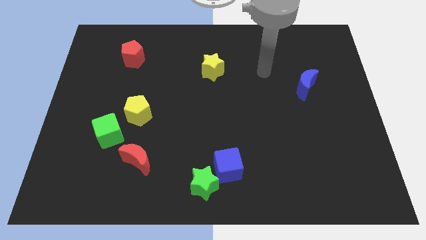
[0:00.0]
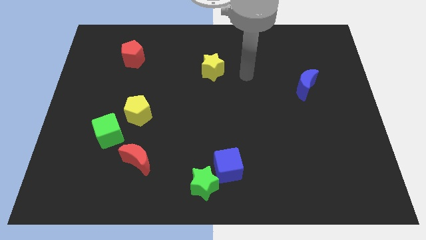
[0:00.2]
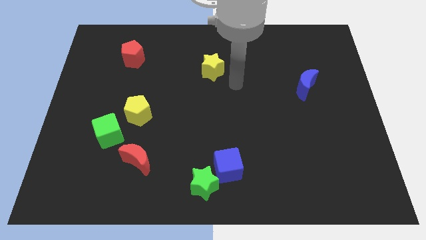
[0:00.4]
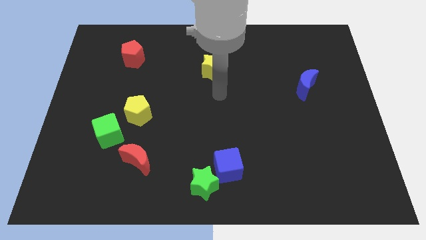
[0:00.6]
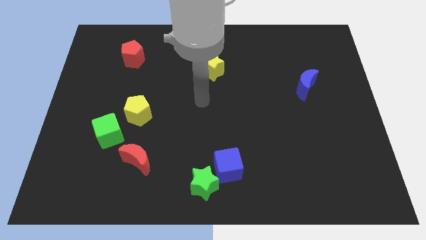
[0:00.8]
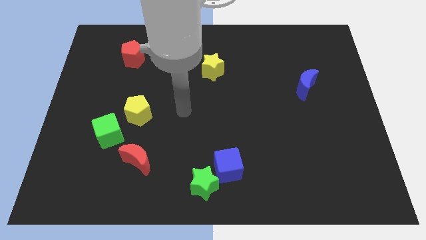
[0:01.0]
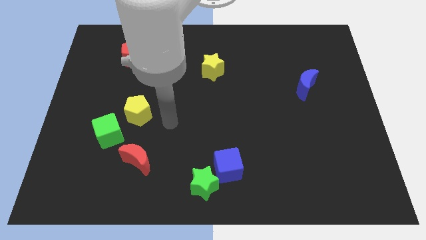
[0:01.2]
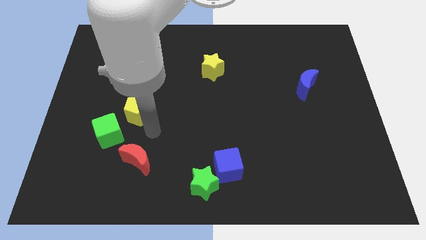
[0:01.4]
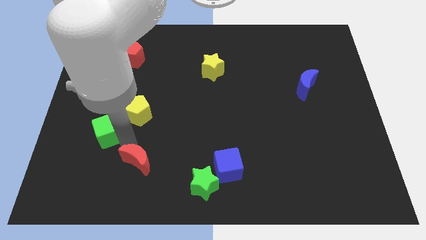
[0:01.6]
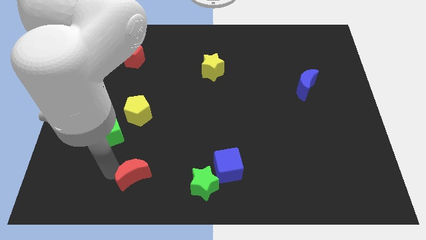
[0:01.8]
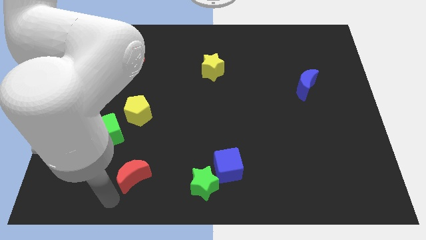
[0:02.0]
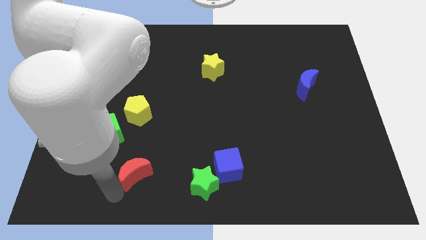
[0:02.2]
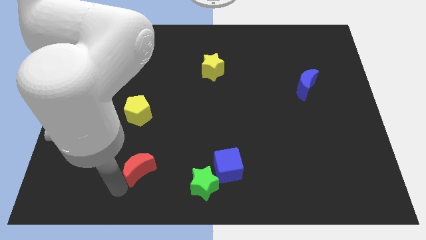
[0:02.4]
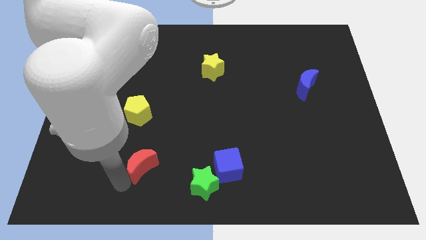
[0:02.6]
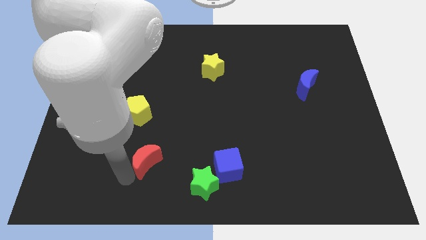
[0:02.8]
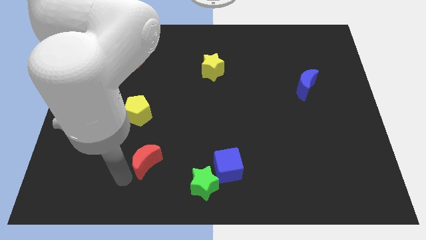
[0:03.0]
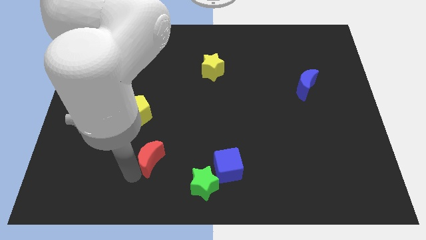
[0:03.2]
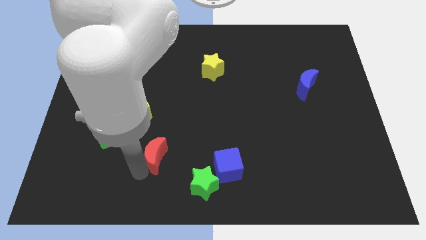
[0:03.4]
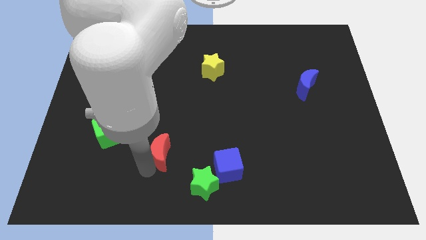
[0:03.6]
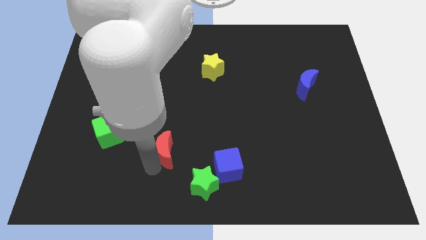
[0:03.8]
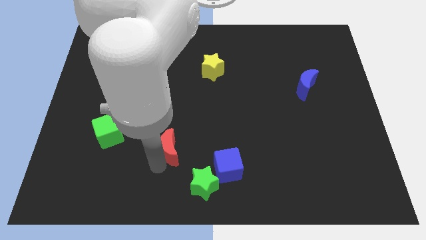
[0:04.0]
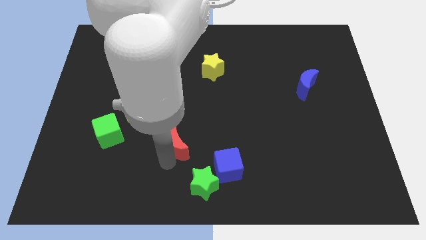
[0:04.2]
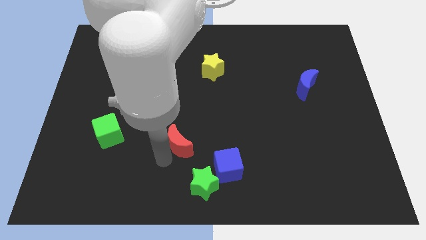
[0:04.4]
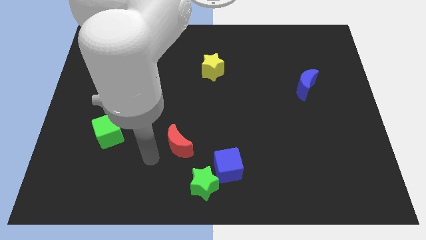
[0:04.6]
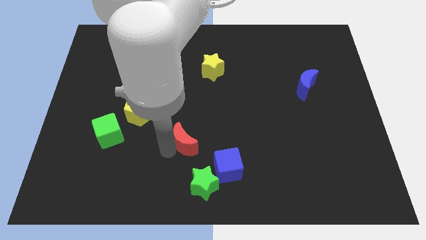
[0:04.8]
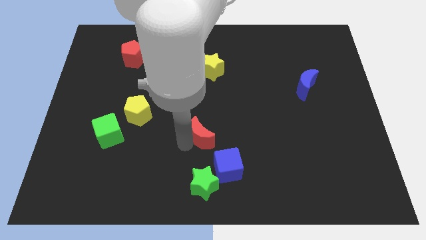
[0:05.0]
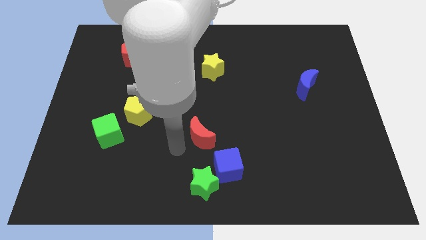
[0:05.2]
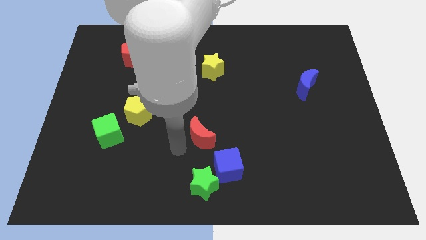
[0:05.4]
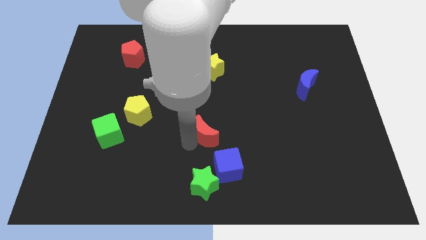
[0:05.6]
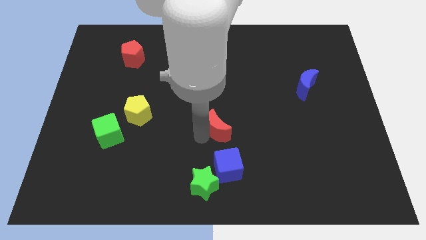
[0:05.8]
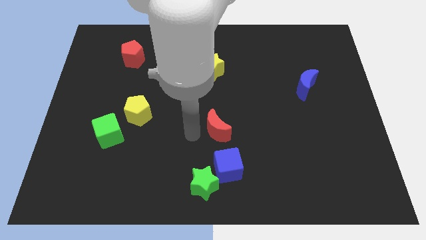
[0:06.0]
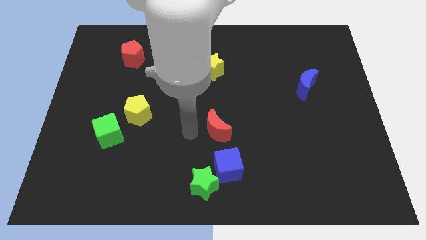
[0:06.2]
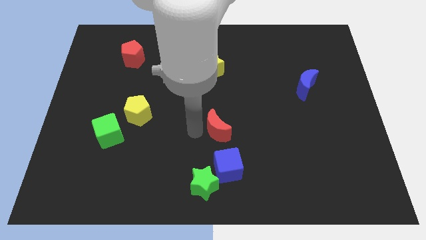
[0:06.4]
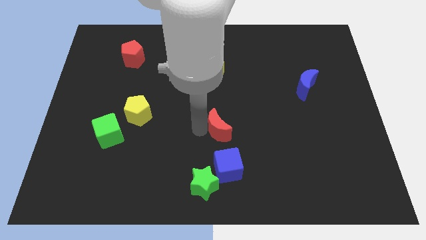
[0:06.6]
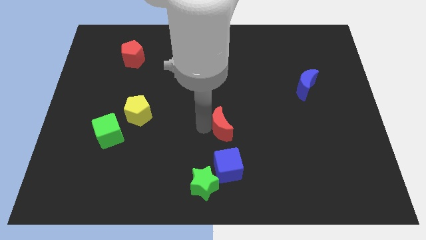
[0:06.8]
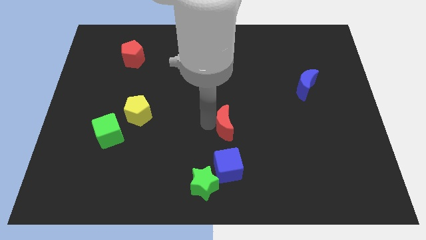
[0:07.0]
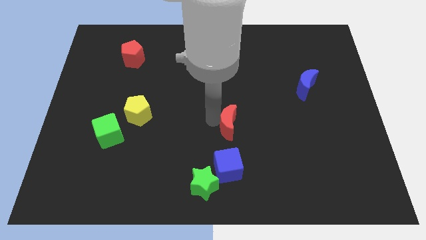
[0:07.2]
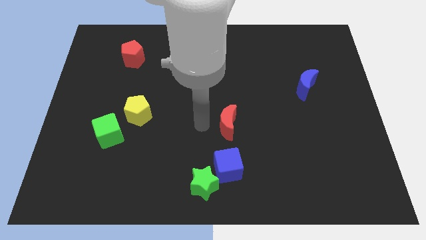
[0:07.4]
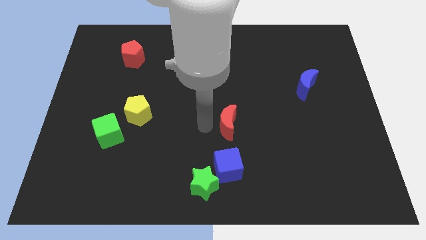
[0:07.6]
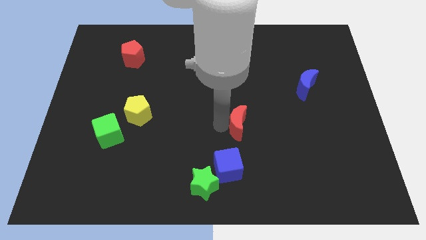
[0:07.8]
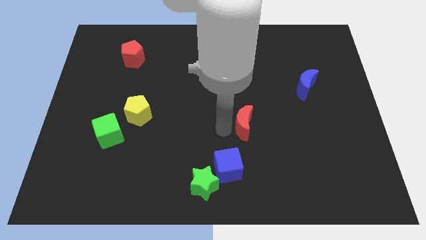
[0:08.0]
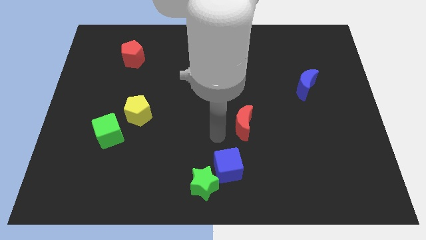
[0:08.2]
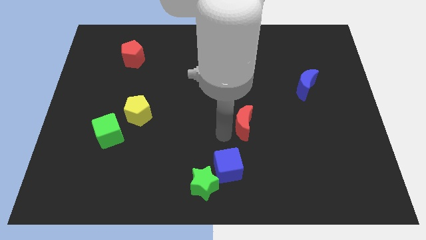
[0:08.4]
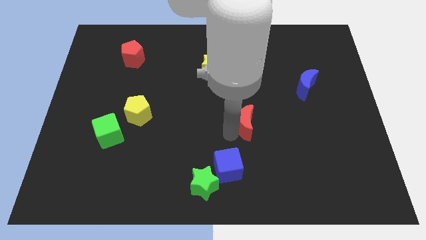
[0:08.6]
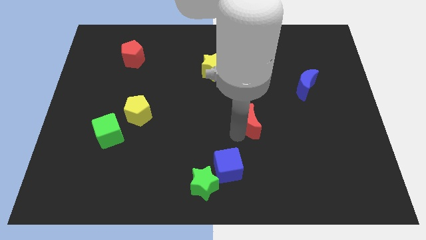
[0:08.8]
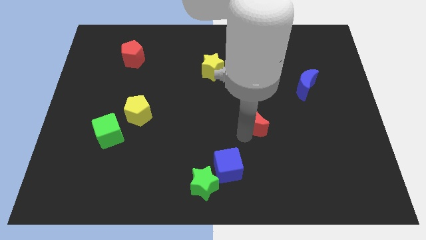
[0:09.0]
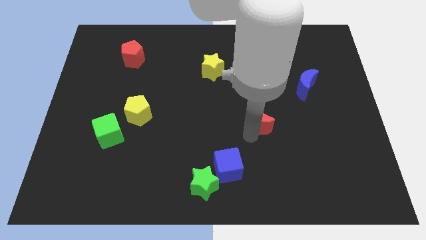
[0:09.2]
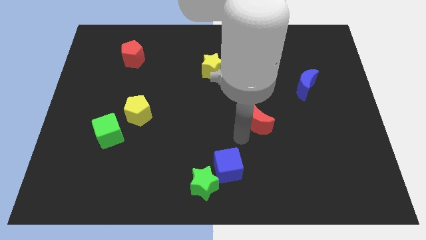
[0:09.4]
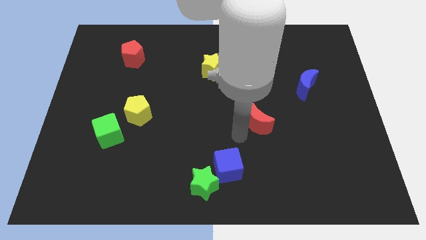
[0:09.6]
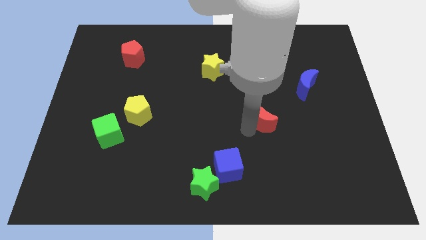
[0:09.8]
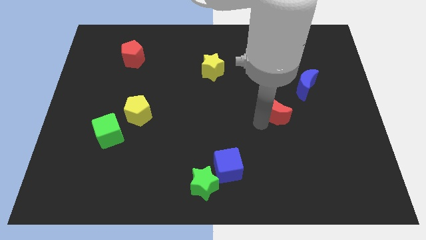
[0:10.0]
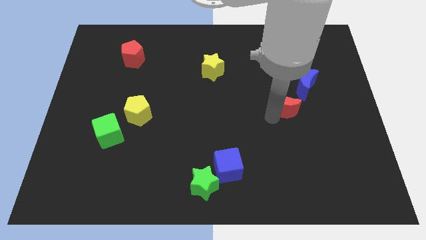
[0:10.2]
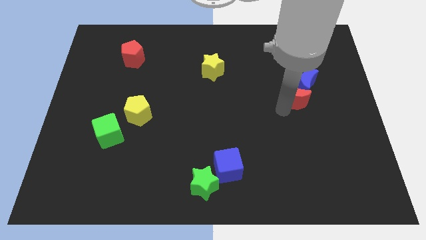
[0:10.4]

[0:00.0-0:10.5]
put the red moon close to the blue moon

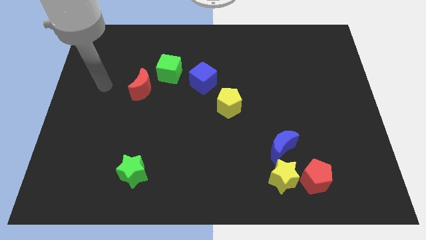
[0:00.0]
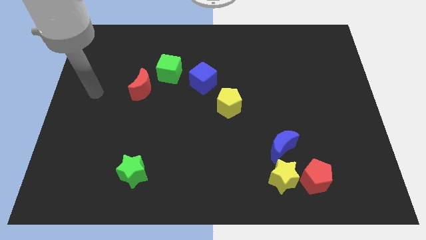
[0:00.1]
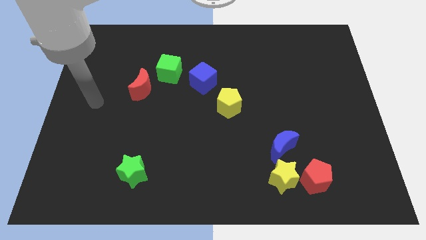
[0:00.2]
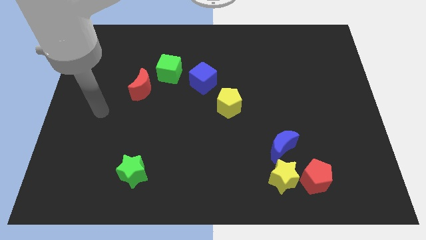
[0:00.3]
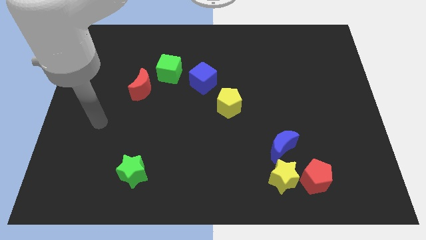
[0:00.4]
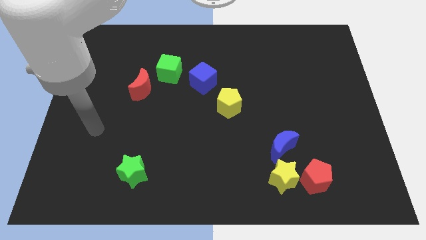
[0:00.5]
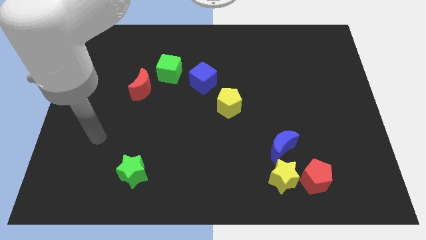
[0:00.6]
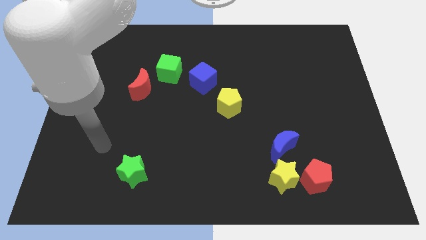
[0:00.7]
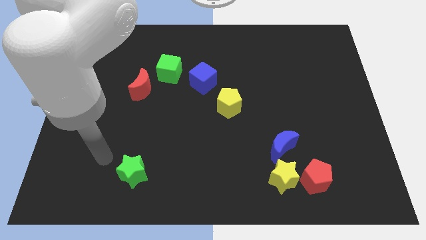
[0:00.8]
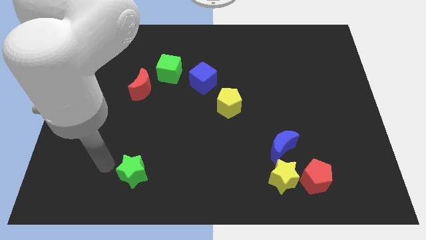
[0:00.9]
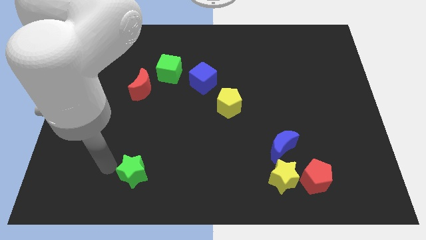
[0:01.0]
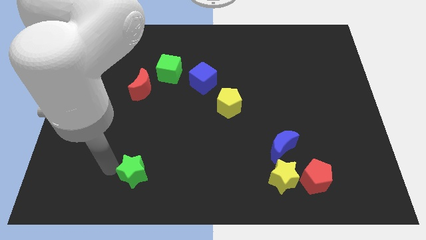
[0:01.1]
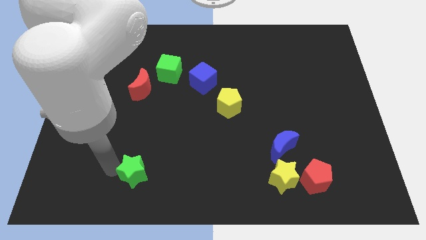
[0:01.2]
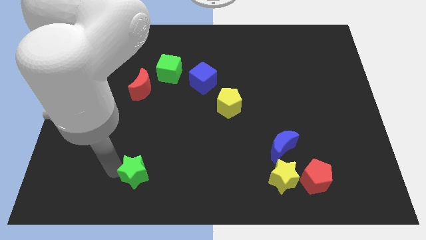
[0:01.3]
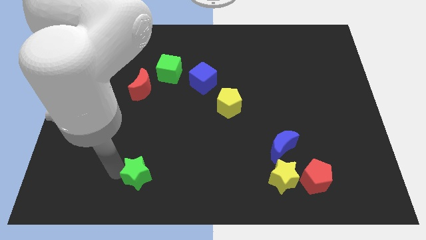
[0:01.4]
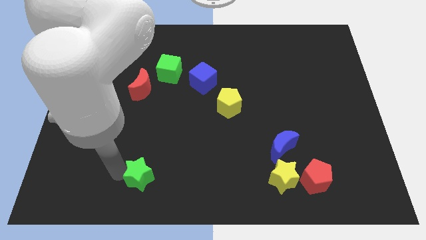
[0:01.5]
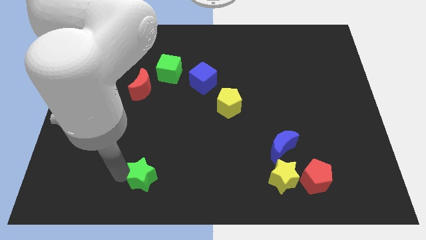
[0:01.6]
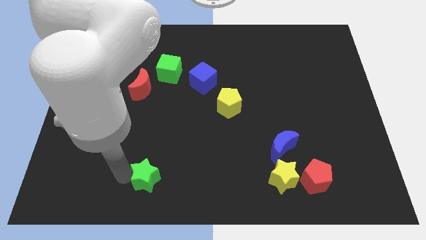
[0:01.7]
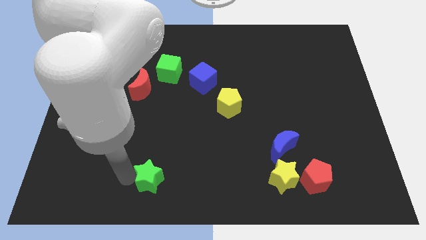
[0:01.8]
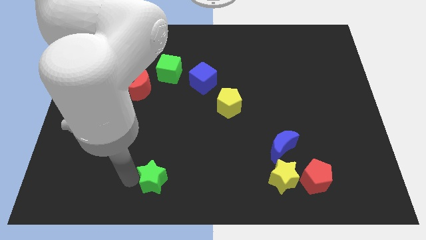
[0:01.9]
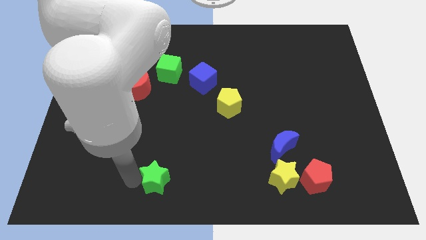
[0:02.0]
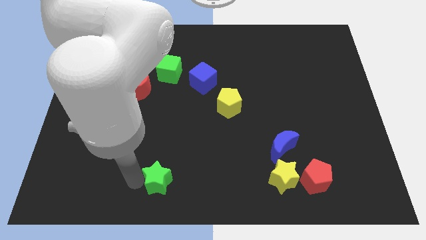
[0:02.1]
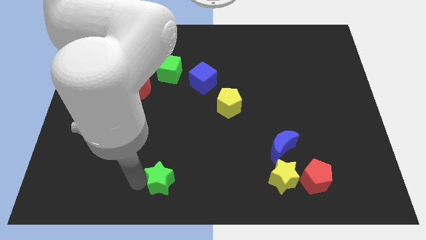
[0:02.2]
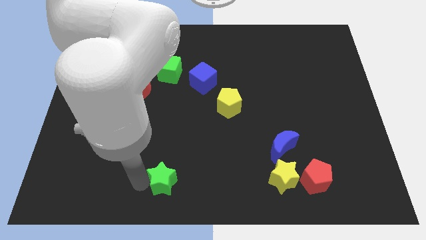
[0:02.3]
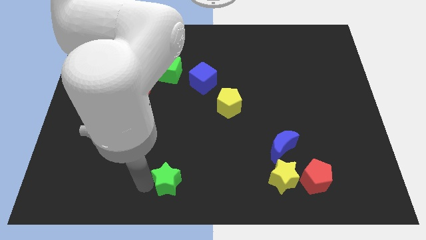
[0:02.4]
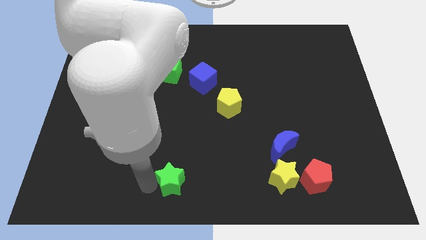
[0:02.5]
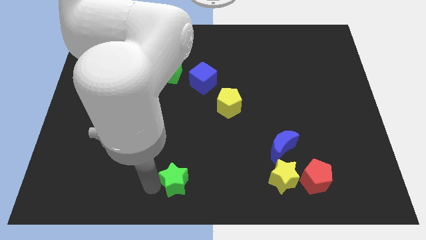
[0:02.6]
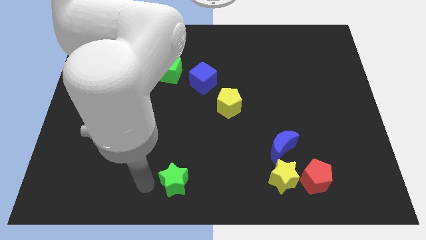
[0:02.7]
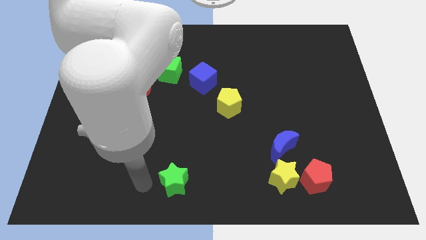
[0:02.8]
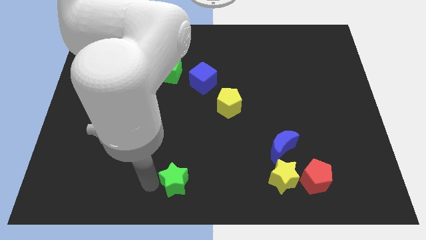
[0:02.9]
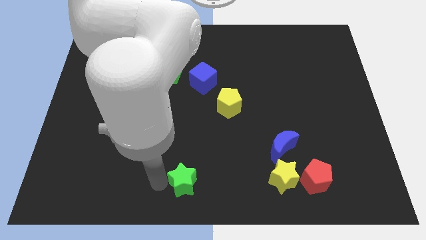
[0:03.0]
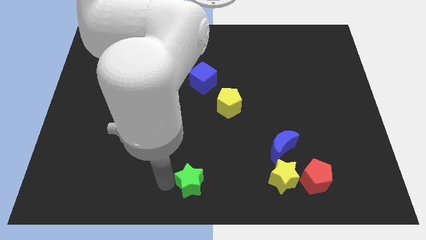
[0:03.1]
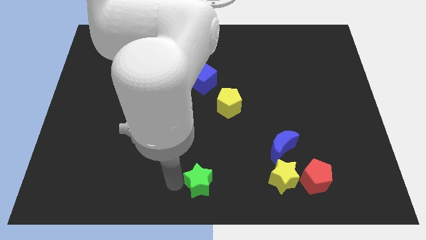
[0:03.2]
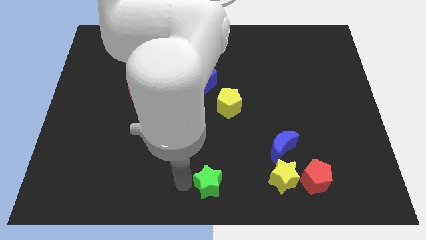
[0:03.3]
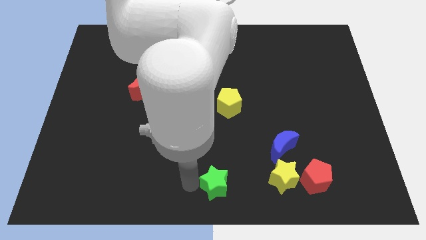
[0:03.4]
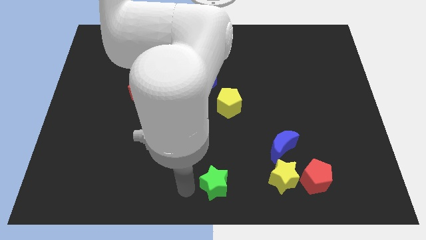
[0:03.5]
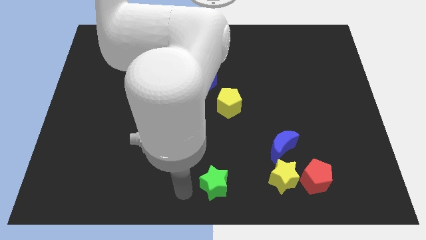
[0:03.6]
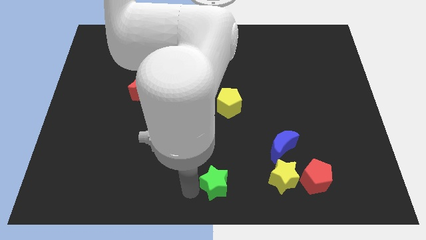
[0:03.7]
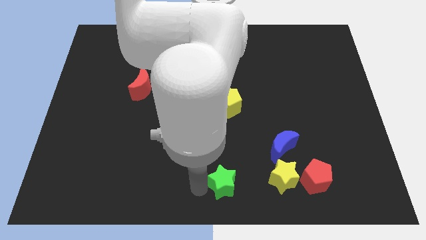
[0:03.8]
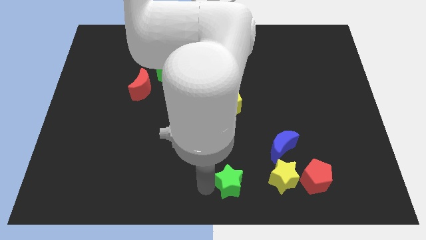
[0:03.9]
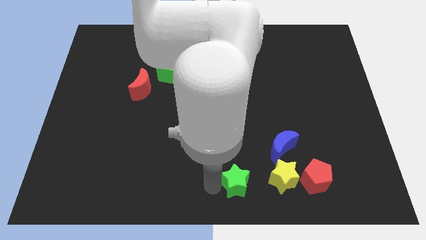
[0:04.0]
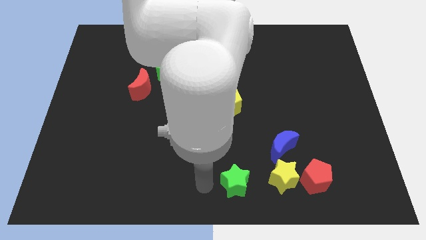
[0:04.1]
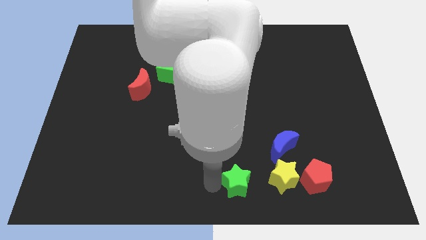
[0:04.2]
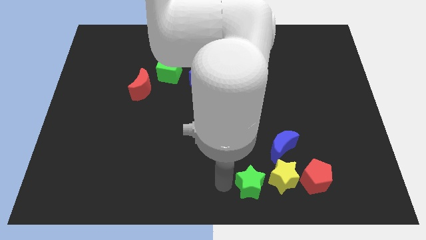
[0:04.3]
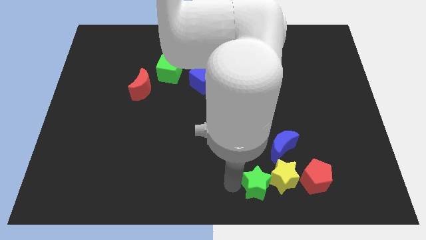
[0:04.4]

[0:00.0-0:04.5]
slide the green star towards the yellow star
